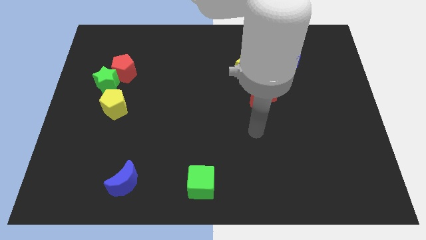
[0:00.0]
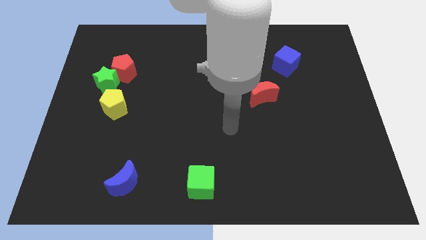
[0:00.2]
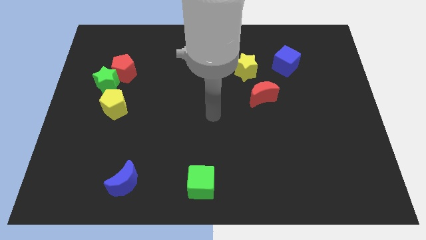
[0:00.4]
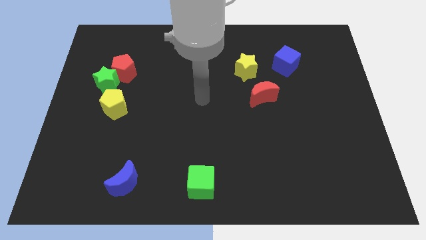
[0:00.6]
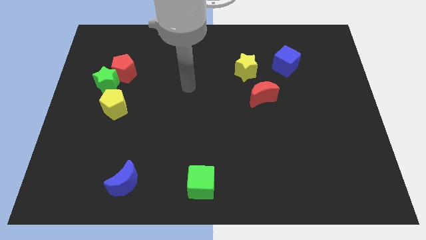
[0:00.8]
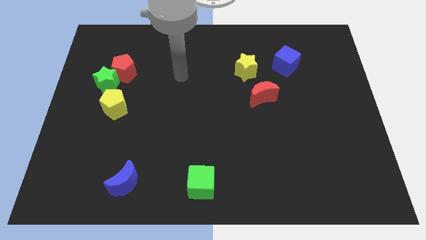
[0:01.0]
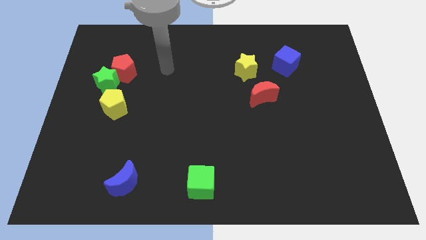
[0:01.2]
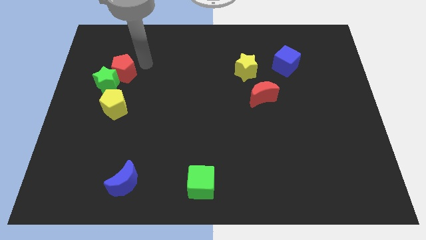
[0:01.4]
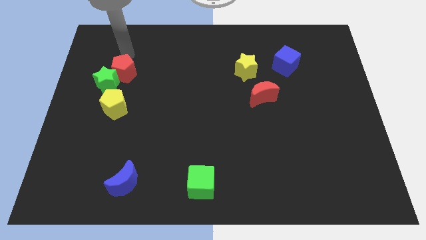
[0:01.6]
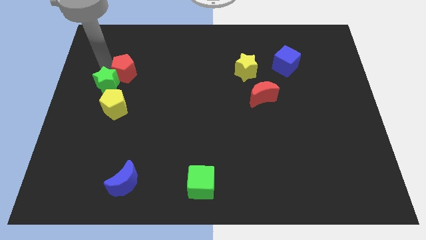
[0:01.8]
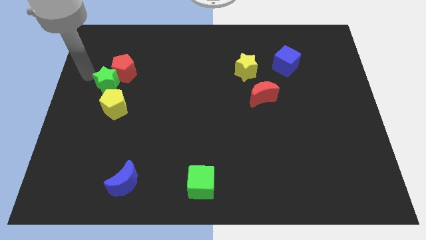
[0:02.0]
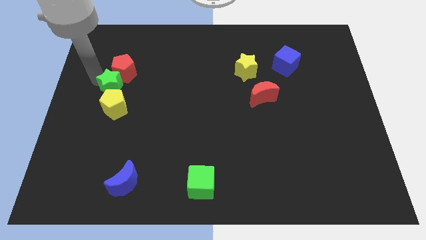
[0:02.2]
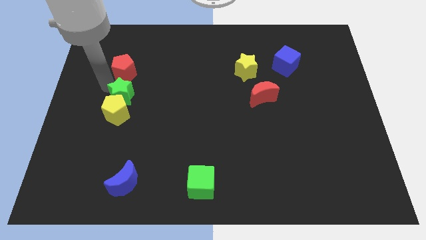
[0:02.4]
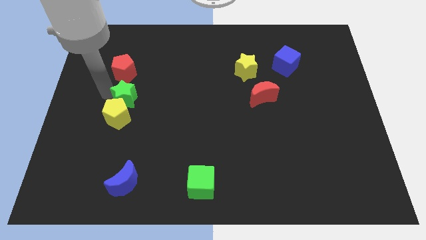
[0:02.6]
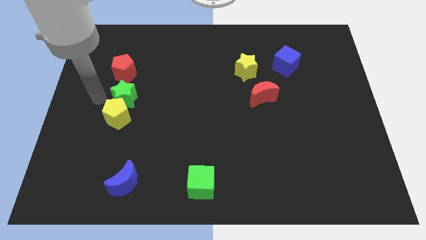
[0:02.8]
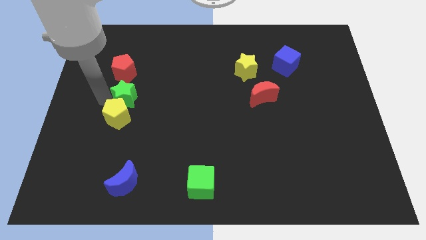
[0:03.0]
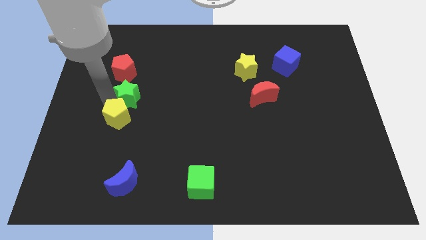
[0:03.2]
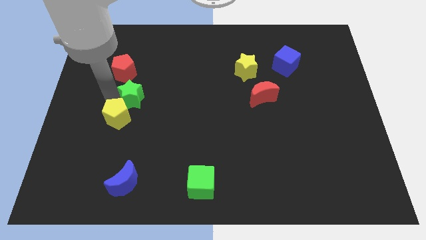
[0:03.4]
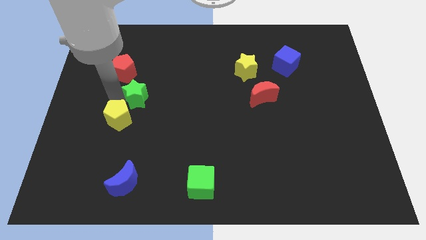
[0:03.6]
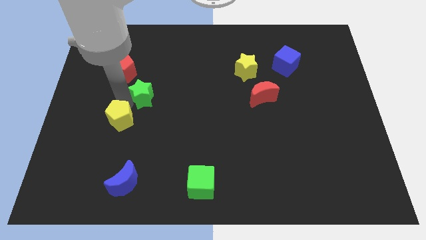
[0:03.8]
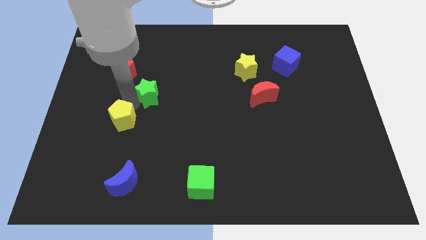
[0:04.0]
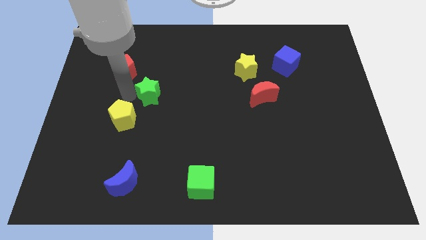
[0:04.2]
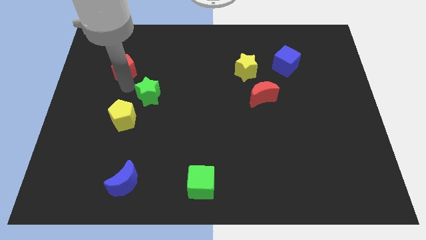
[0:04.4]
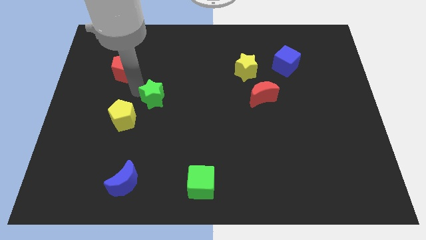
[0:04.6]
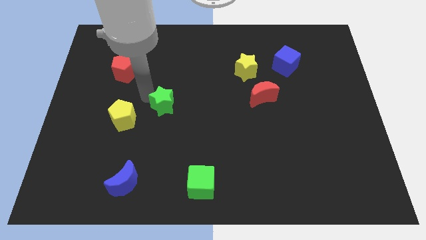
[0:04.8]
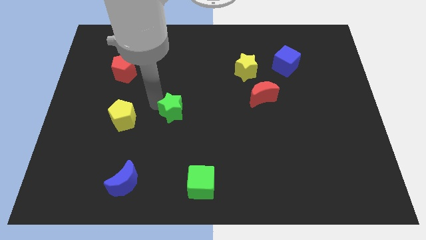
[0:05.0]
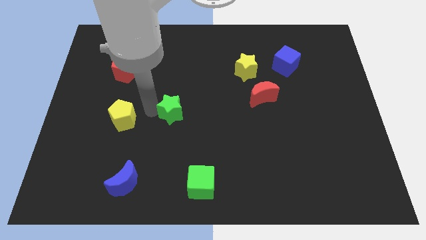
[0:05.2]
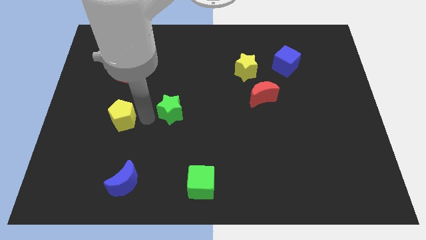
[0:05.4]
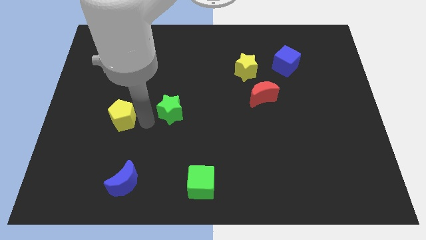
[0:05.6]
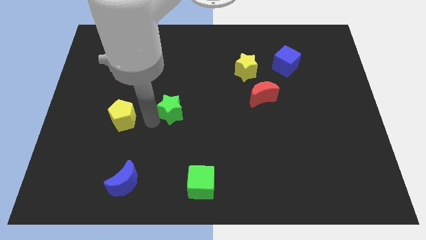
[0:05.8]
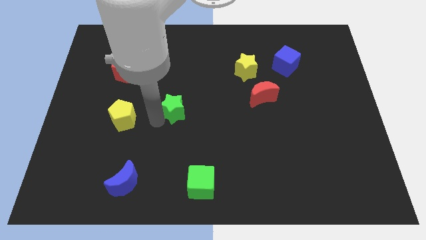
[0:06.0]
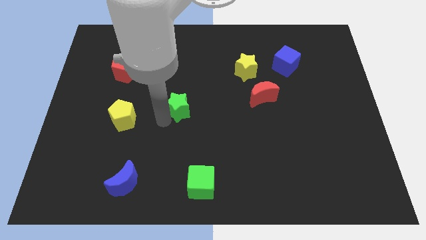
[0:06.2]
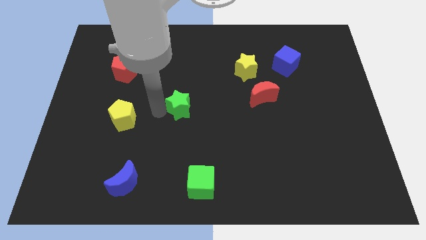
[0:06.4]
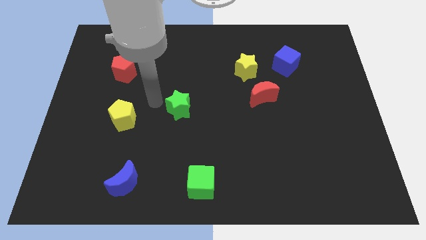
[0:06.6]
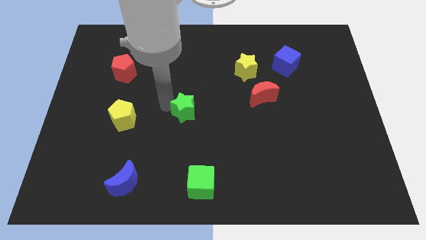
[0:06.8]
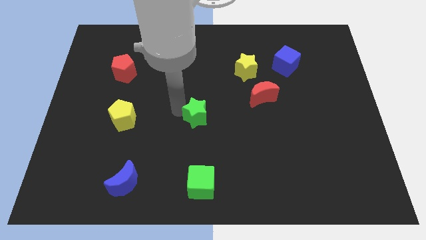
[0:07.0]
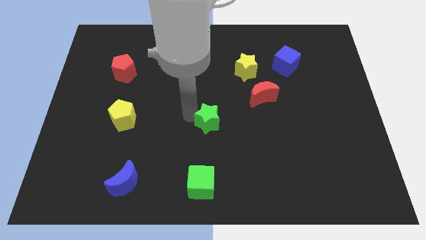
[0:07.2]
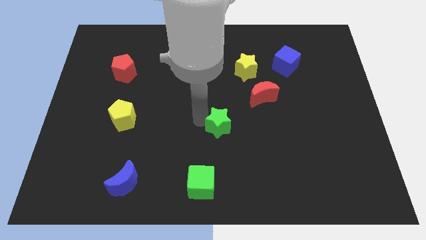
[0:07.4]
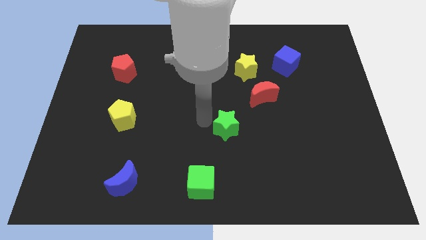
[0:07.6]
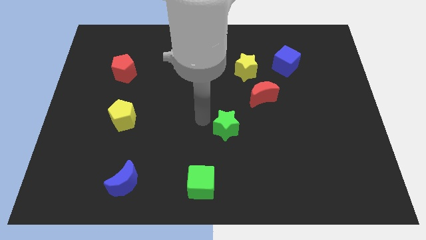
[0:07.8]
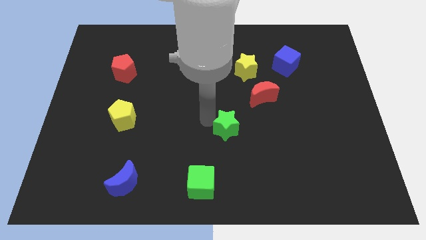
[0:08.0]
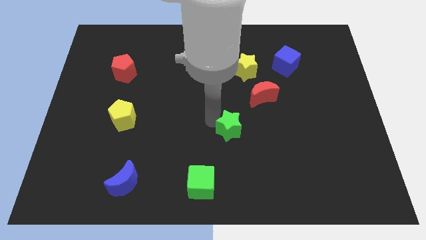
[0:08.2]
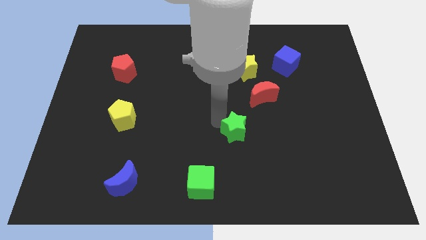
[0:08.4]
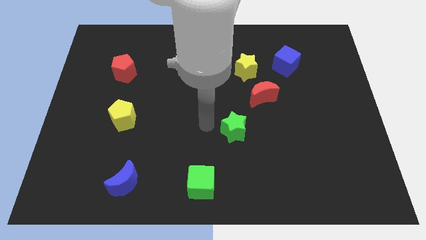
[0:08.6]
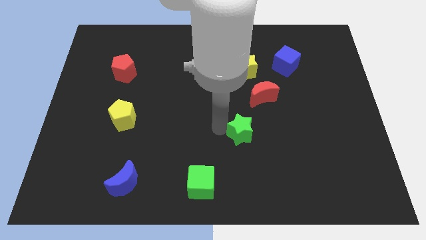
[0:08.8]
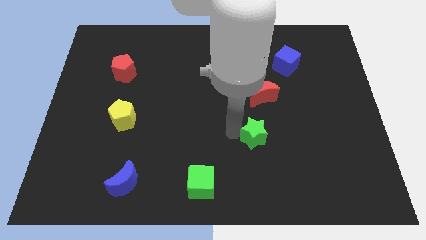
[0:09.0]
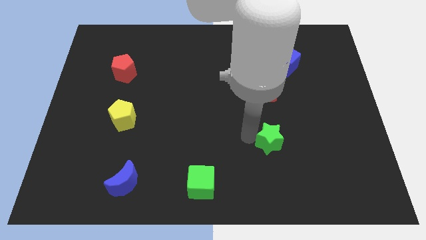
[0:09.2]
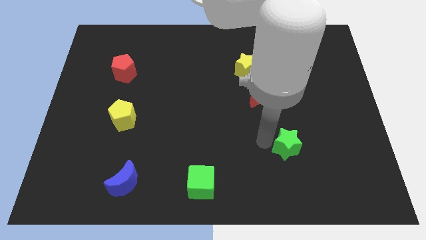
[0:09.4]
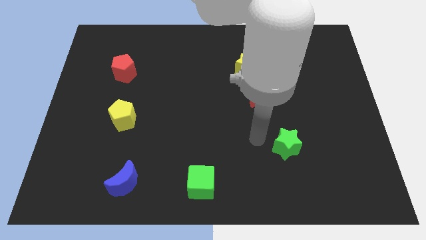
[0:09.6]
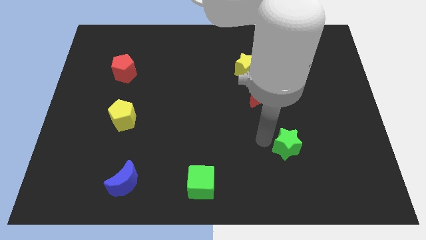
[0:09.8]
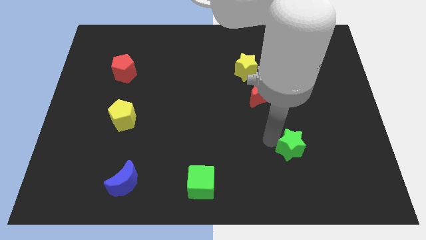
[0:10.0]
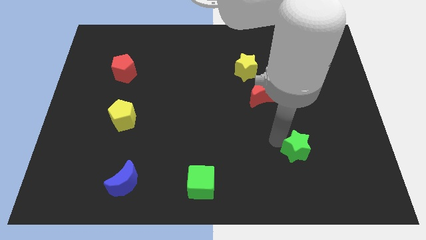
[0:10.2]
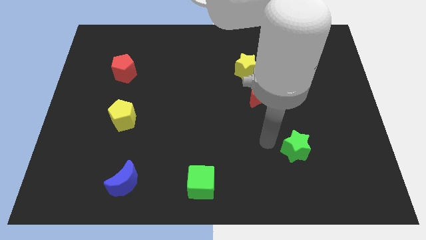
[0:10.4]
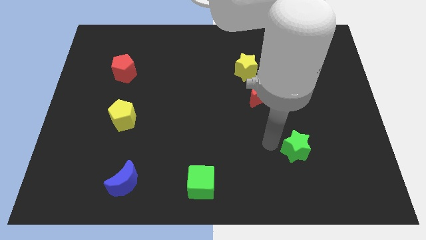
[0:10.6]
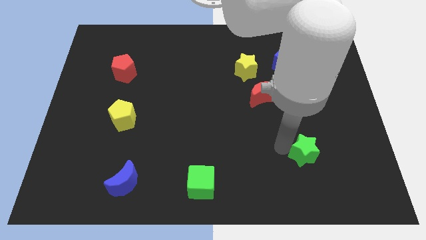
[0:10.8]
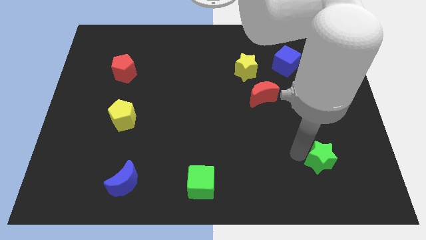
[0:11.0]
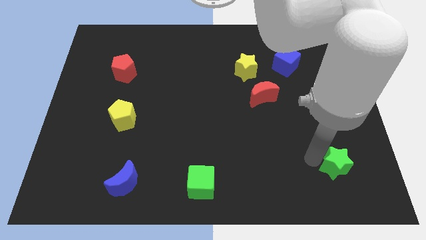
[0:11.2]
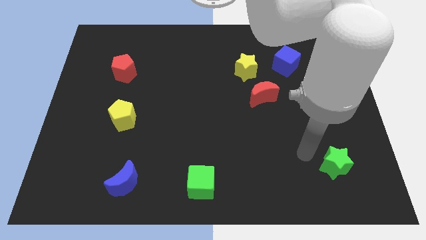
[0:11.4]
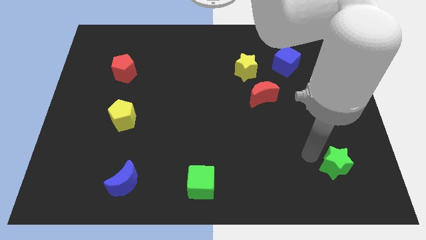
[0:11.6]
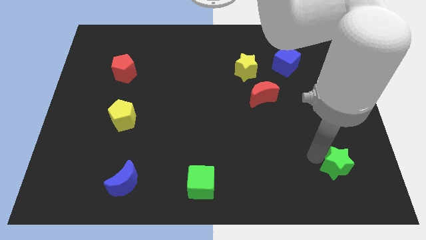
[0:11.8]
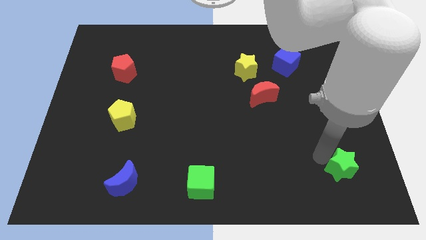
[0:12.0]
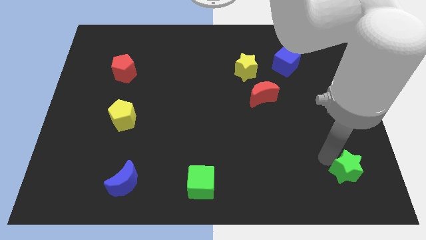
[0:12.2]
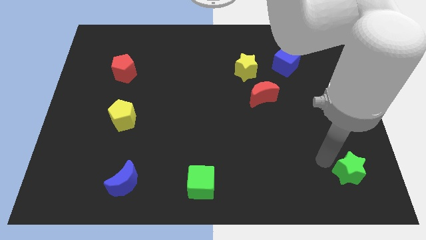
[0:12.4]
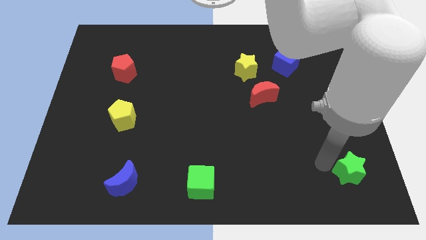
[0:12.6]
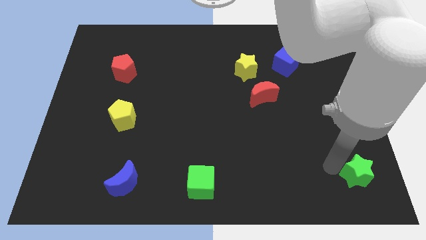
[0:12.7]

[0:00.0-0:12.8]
move the green star to the bottom right
